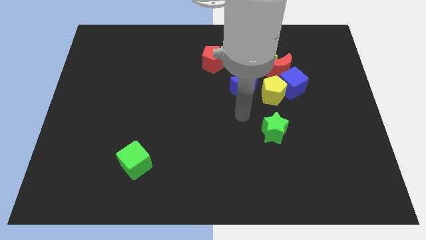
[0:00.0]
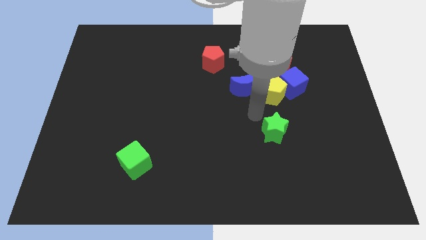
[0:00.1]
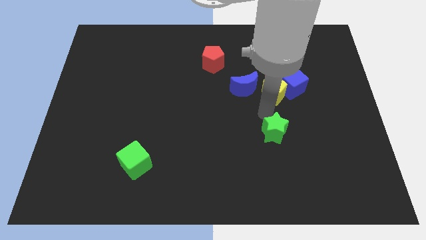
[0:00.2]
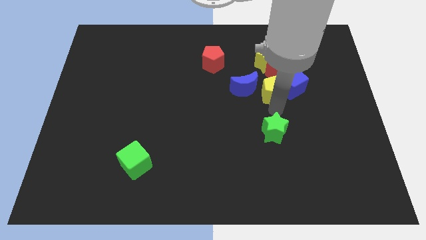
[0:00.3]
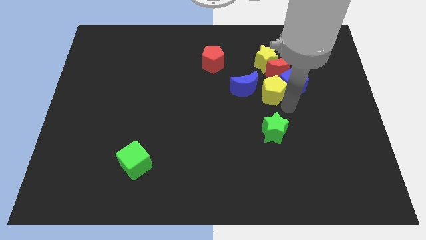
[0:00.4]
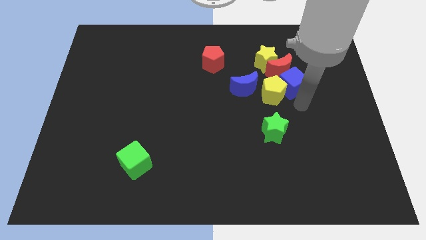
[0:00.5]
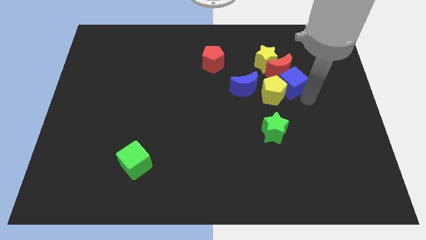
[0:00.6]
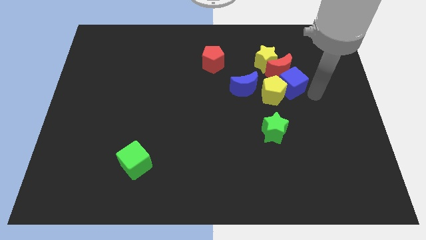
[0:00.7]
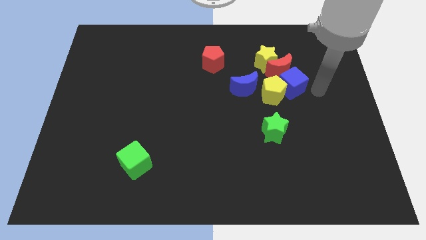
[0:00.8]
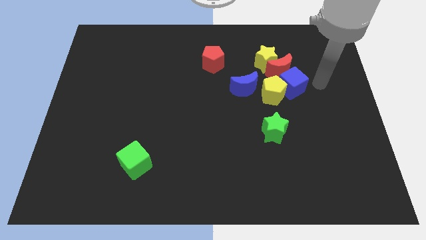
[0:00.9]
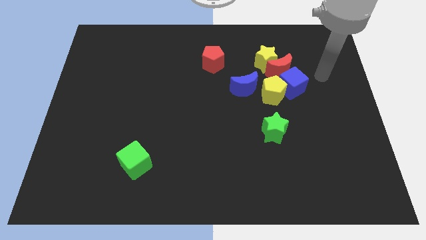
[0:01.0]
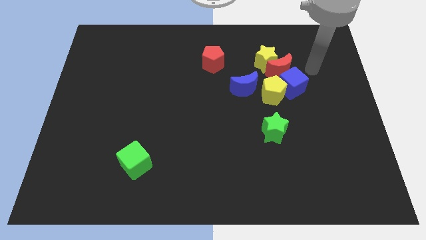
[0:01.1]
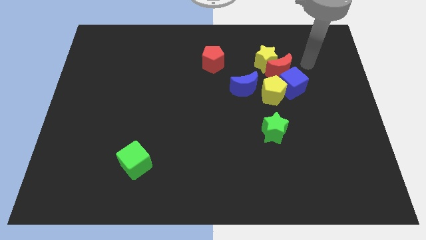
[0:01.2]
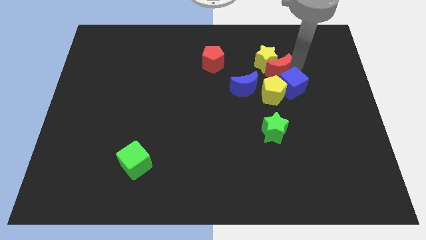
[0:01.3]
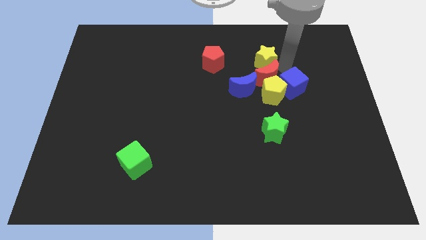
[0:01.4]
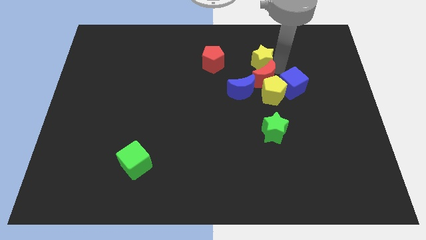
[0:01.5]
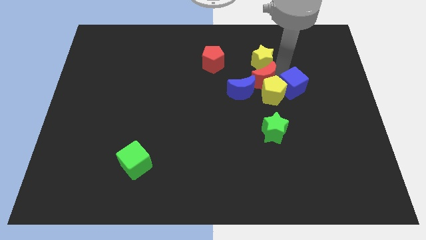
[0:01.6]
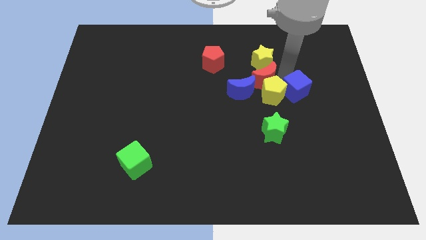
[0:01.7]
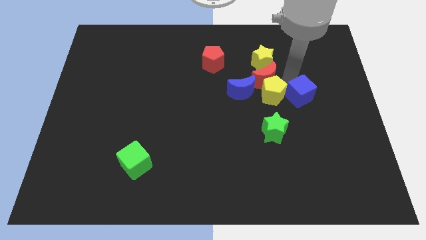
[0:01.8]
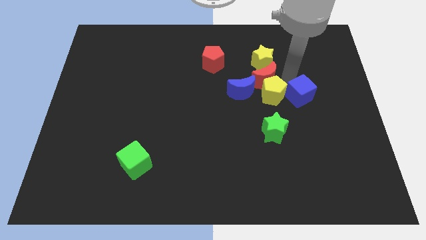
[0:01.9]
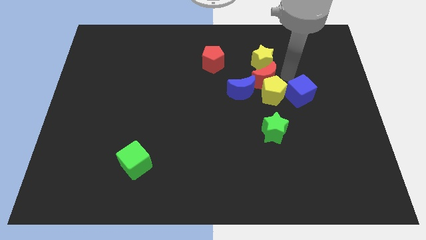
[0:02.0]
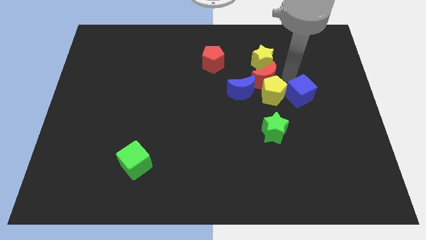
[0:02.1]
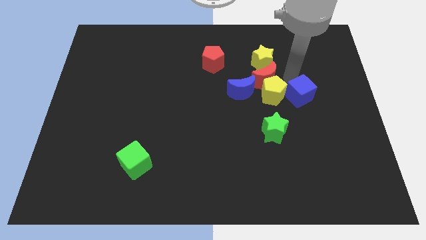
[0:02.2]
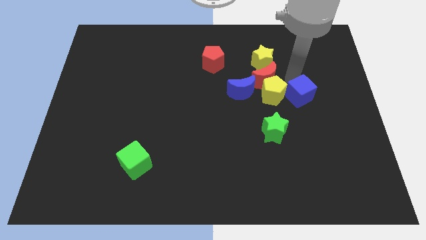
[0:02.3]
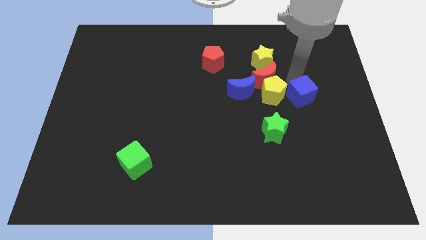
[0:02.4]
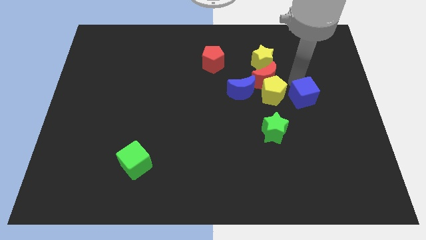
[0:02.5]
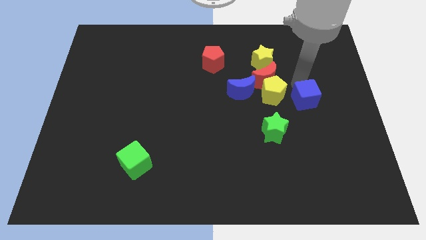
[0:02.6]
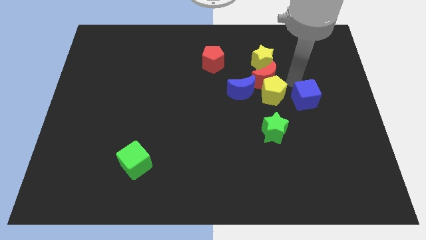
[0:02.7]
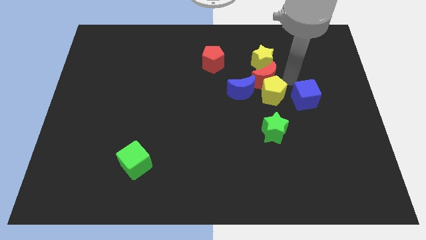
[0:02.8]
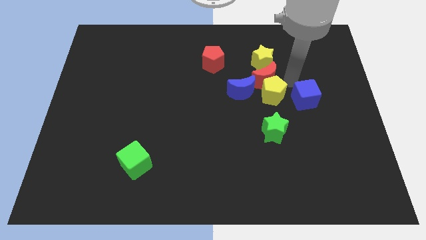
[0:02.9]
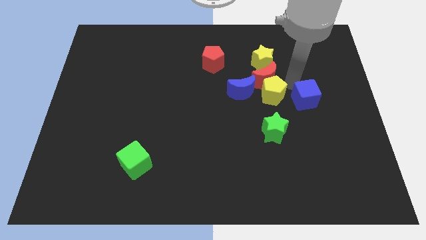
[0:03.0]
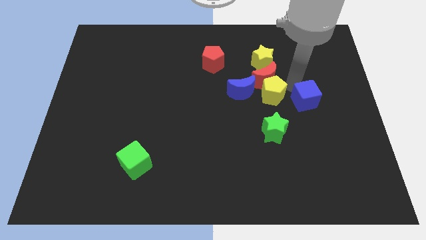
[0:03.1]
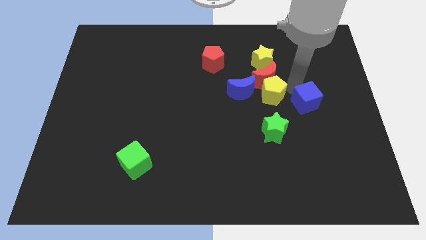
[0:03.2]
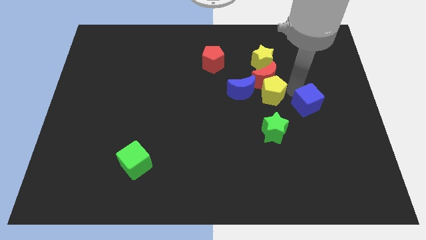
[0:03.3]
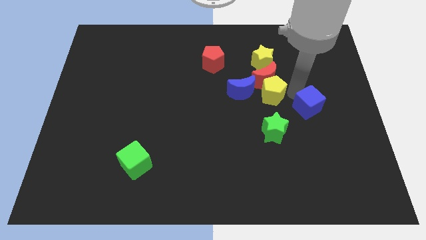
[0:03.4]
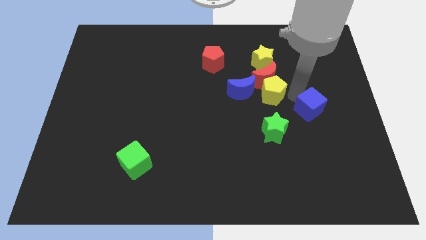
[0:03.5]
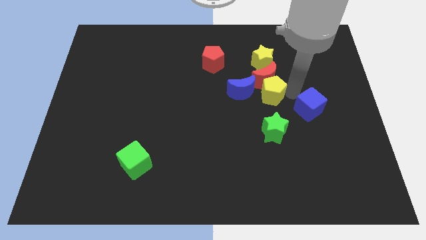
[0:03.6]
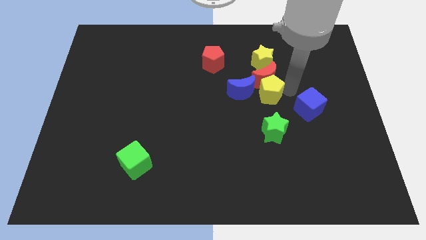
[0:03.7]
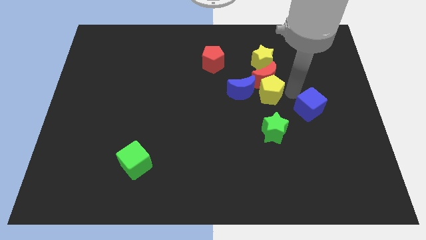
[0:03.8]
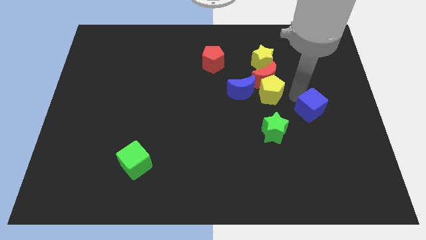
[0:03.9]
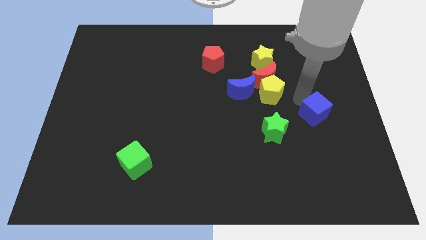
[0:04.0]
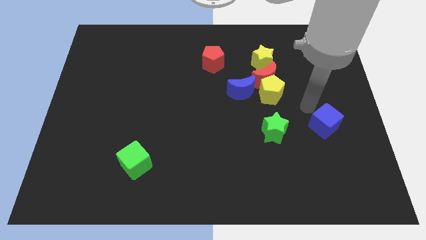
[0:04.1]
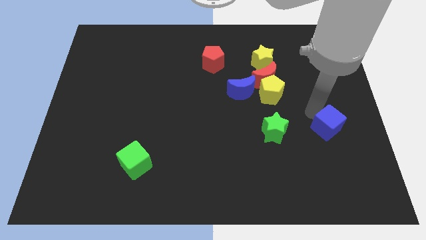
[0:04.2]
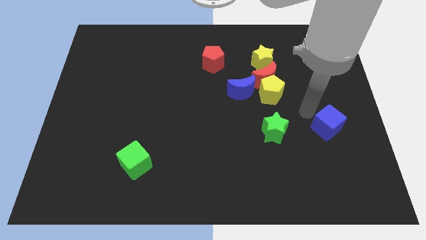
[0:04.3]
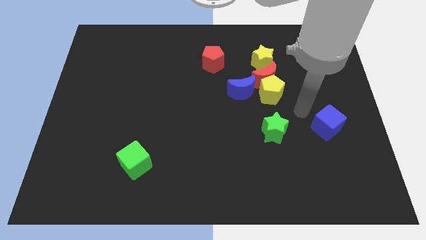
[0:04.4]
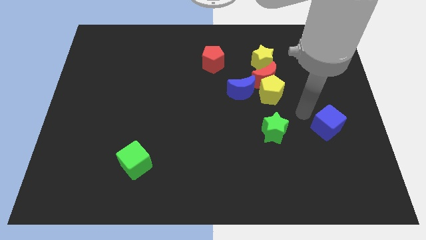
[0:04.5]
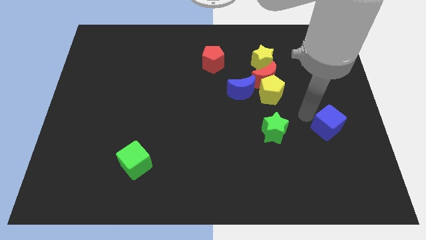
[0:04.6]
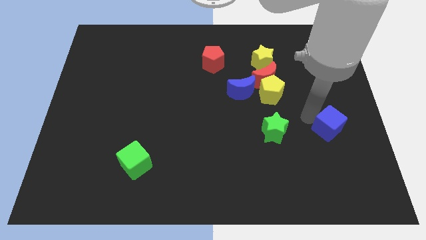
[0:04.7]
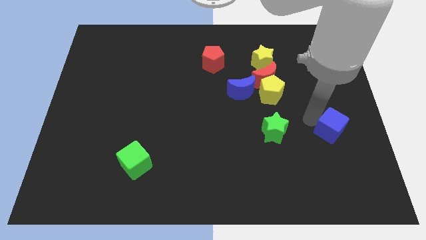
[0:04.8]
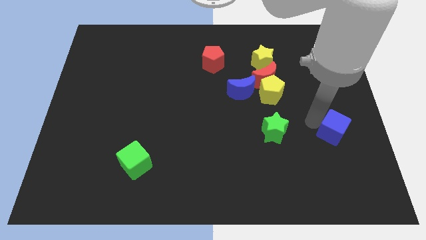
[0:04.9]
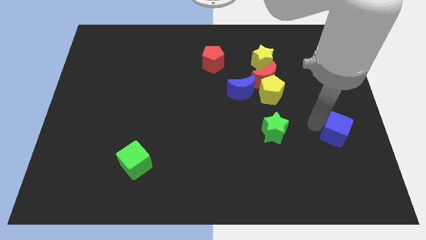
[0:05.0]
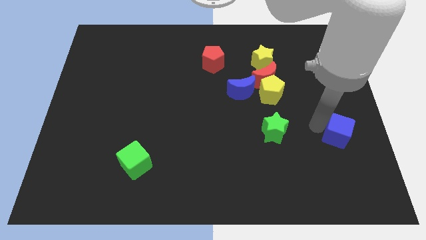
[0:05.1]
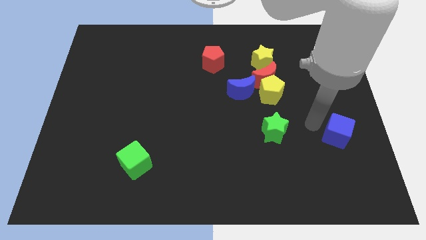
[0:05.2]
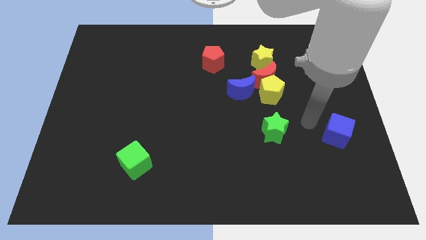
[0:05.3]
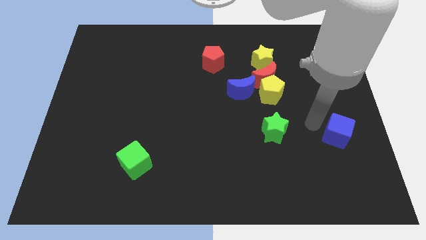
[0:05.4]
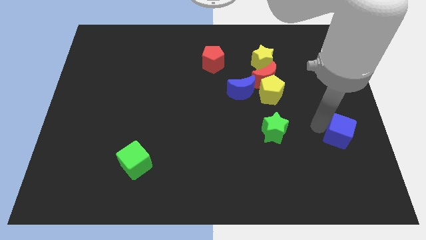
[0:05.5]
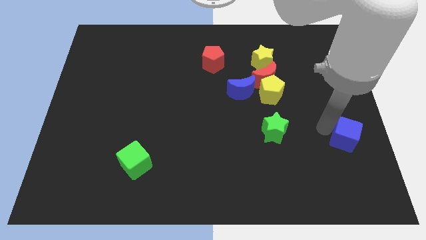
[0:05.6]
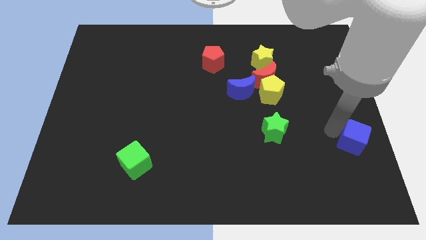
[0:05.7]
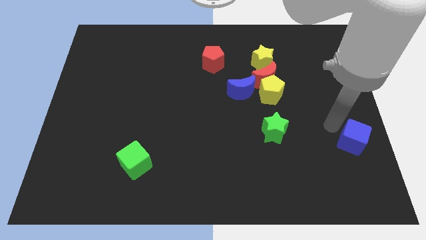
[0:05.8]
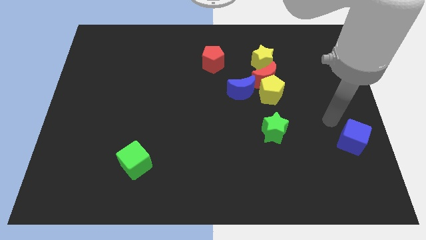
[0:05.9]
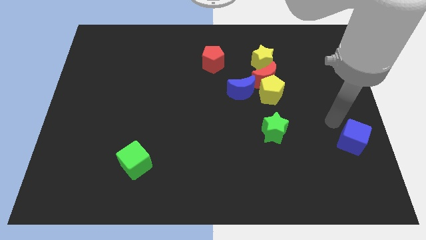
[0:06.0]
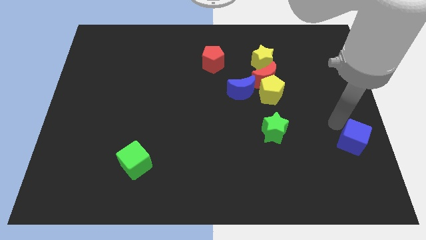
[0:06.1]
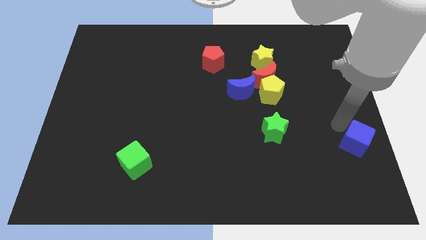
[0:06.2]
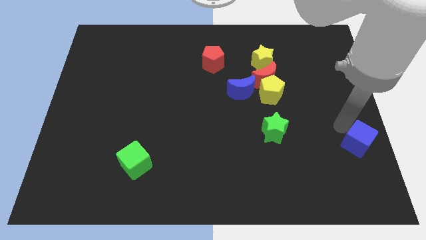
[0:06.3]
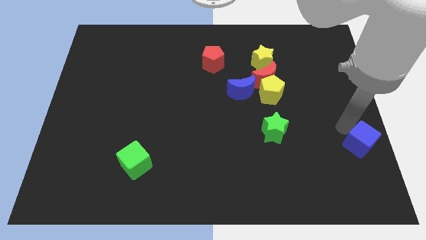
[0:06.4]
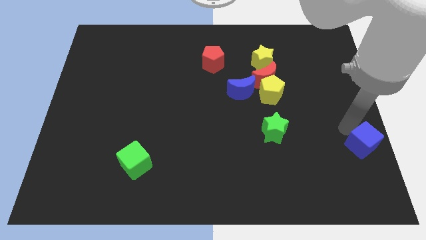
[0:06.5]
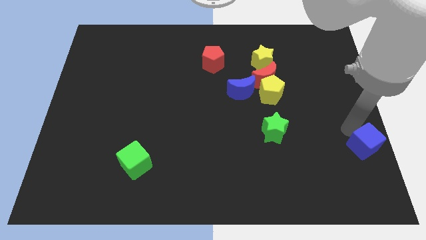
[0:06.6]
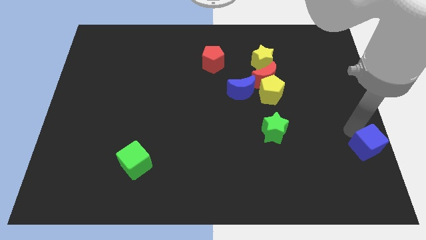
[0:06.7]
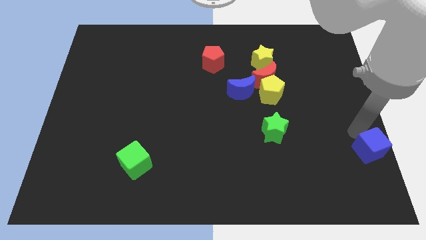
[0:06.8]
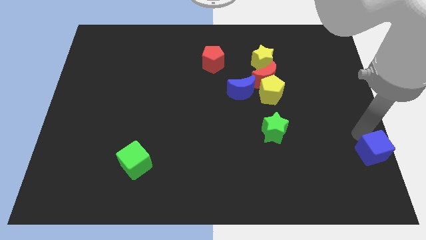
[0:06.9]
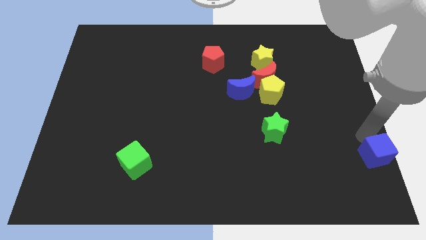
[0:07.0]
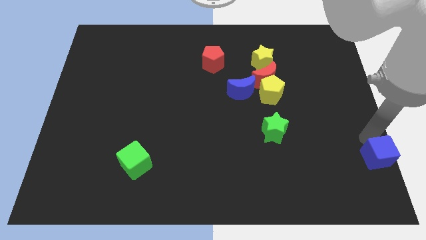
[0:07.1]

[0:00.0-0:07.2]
move the blue cube to the lower right corner
